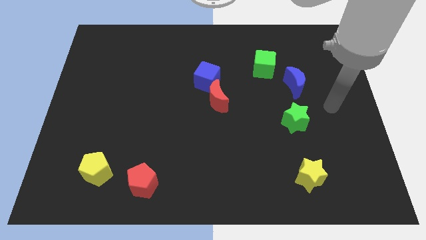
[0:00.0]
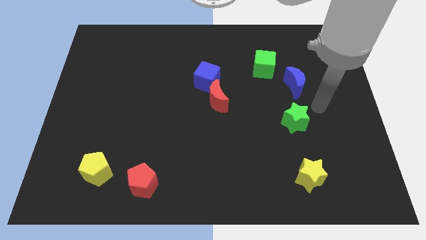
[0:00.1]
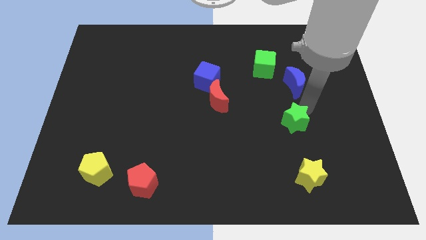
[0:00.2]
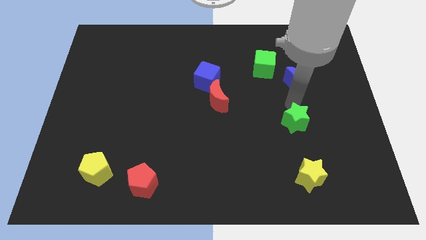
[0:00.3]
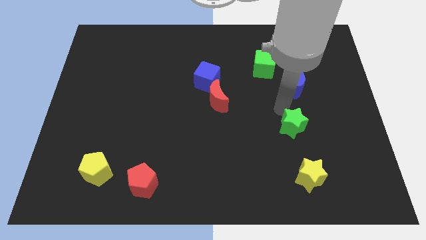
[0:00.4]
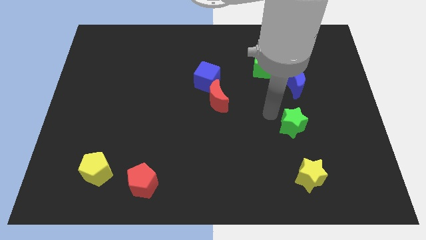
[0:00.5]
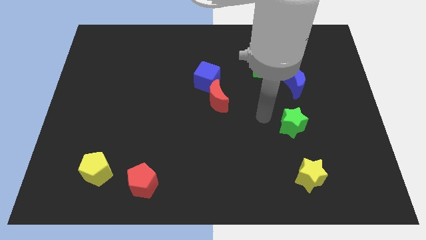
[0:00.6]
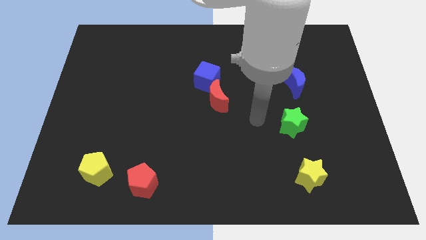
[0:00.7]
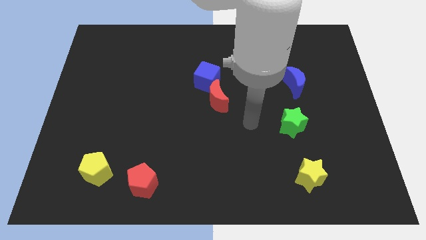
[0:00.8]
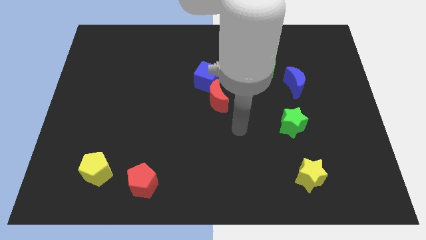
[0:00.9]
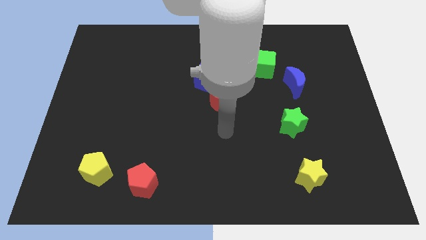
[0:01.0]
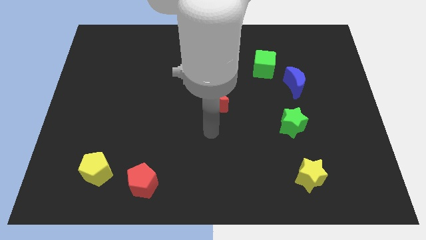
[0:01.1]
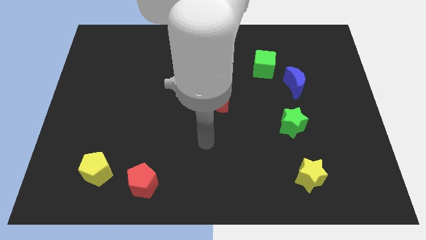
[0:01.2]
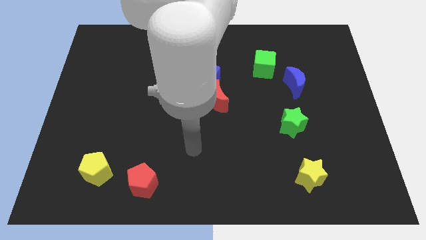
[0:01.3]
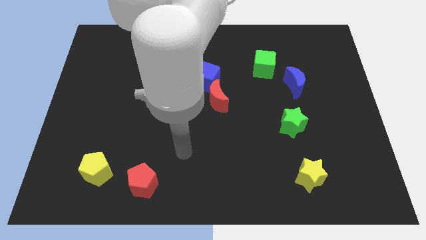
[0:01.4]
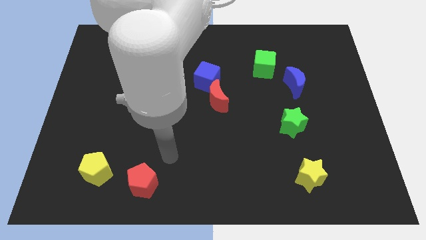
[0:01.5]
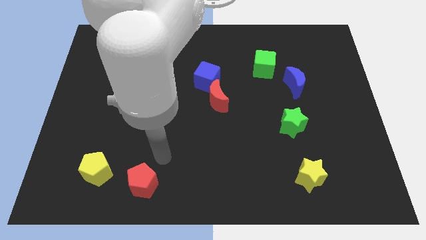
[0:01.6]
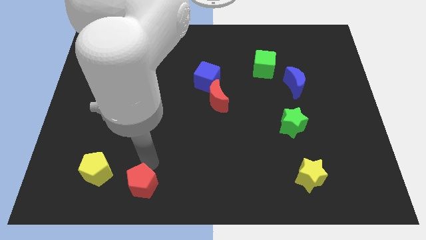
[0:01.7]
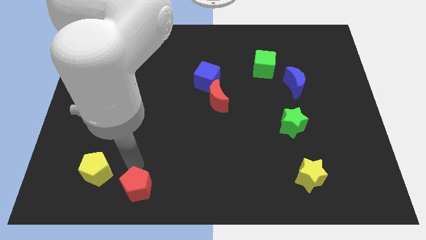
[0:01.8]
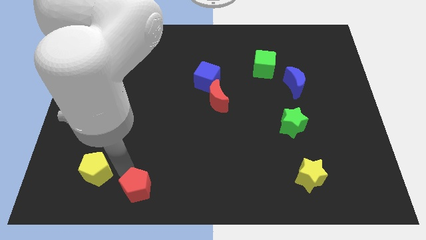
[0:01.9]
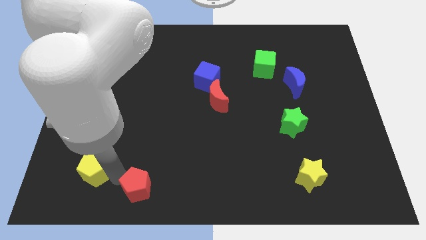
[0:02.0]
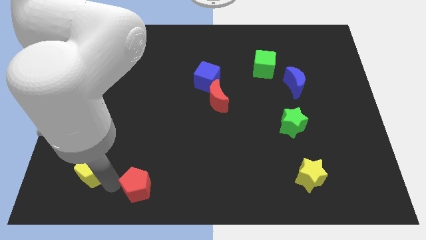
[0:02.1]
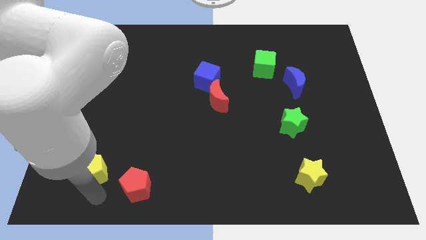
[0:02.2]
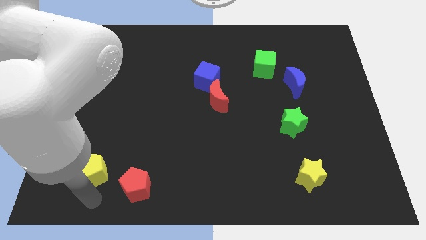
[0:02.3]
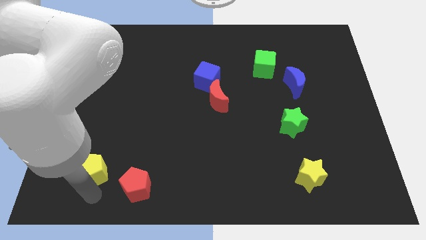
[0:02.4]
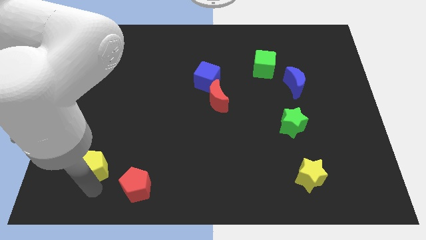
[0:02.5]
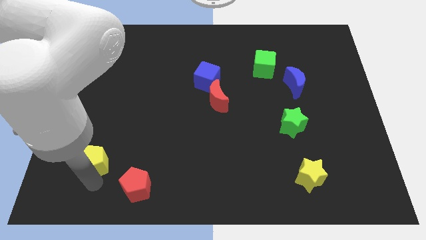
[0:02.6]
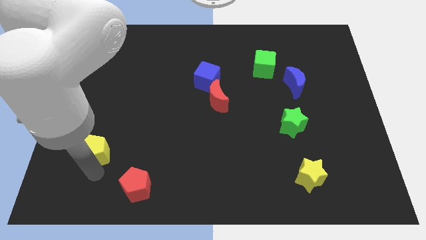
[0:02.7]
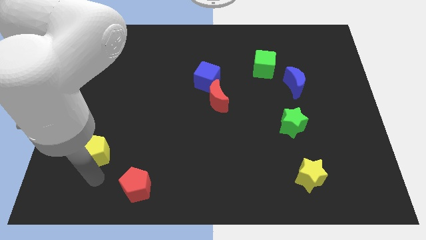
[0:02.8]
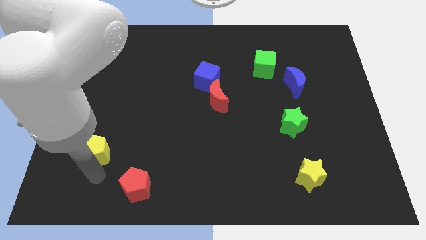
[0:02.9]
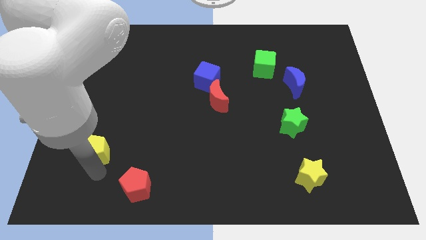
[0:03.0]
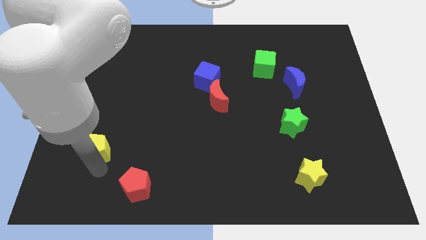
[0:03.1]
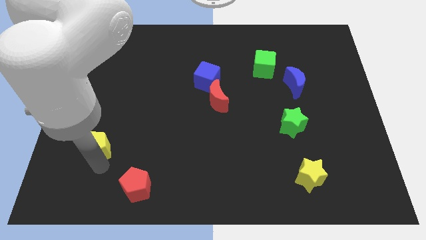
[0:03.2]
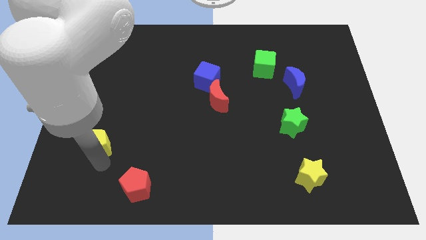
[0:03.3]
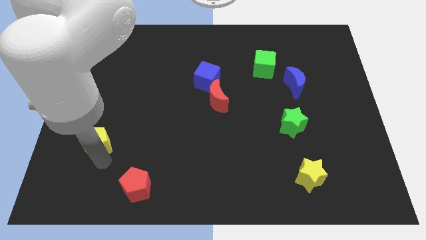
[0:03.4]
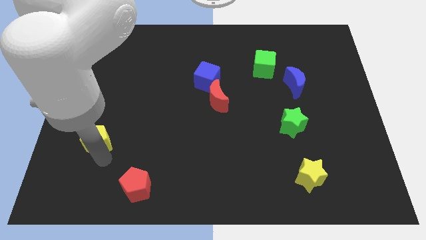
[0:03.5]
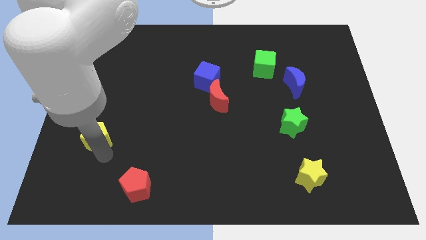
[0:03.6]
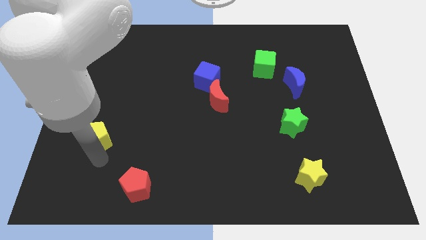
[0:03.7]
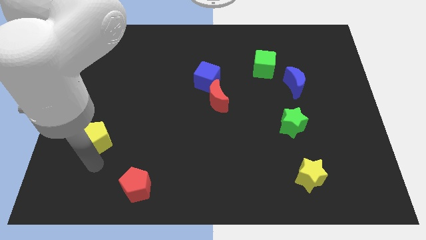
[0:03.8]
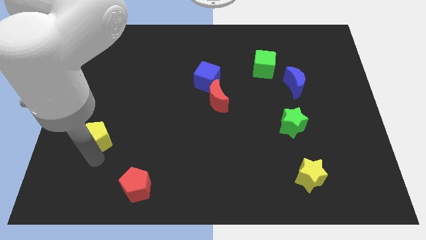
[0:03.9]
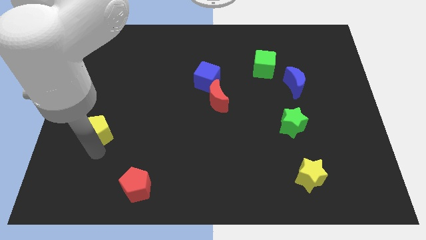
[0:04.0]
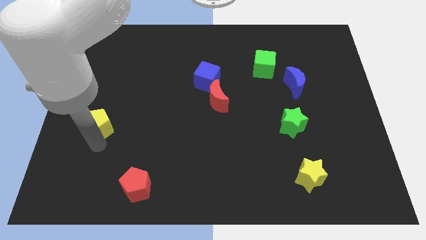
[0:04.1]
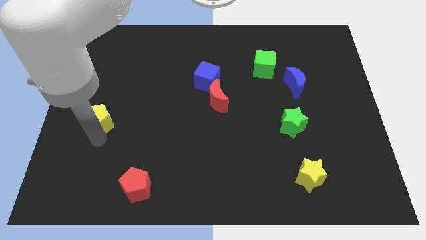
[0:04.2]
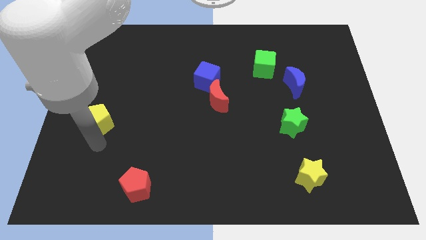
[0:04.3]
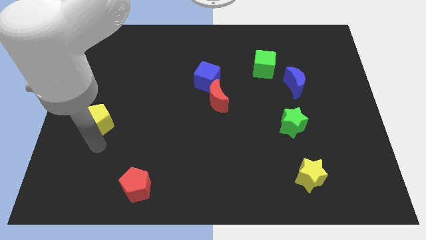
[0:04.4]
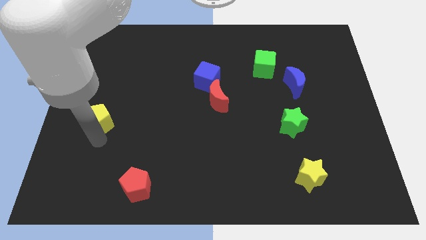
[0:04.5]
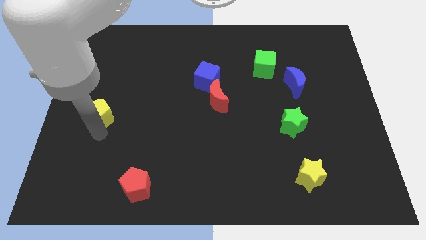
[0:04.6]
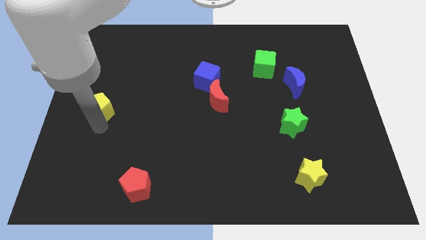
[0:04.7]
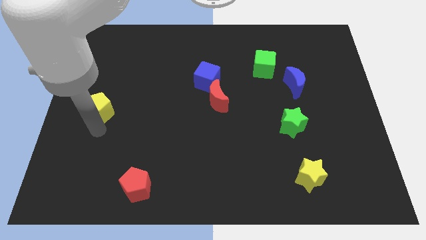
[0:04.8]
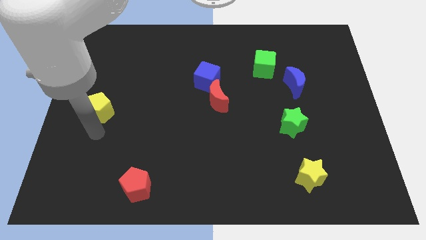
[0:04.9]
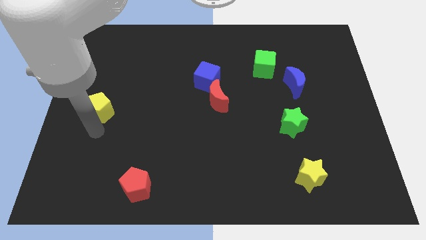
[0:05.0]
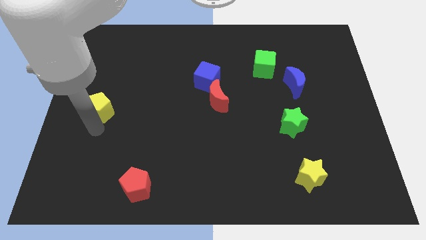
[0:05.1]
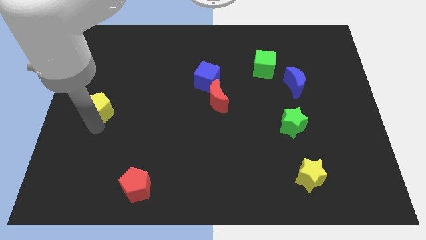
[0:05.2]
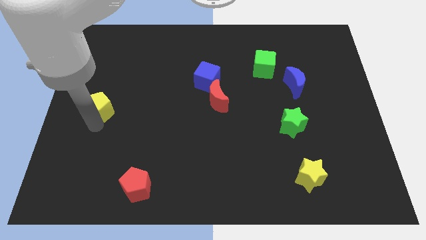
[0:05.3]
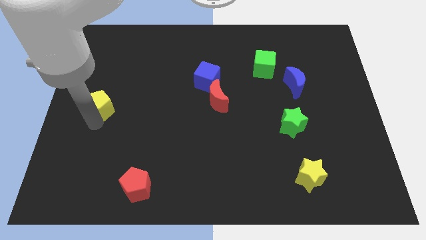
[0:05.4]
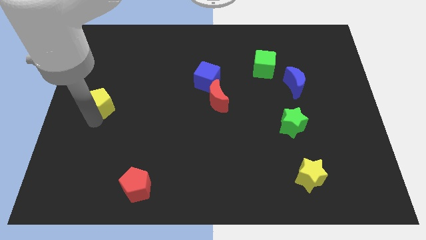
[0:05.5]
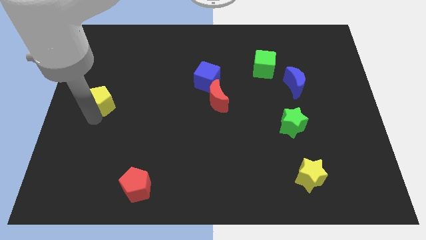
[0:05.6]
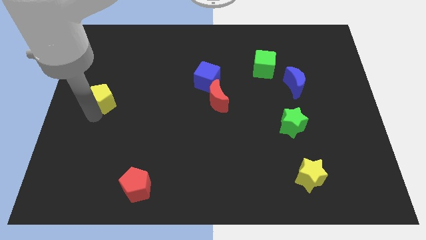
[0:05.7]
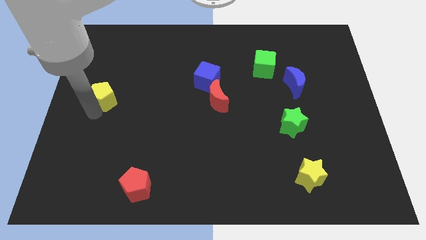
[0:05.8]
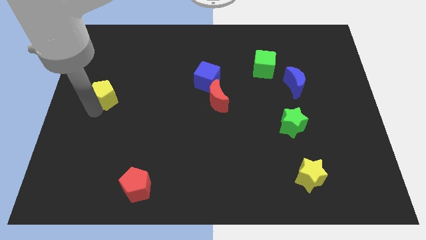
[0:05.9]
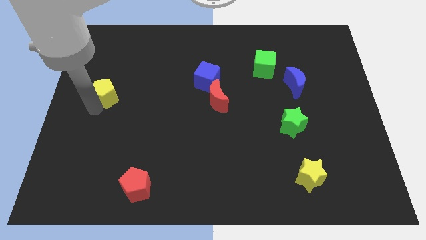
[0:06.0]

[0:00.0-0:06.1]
move the yellow pentagon upwards

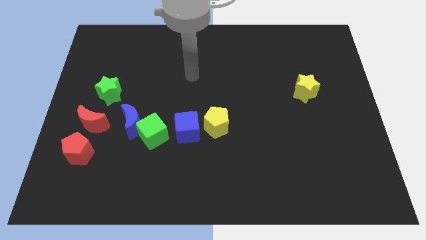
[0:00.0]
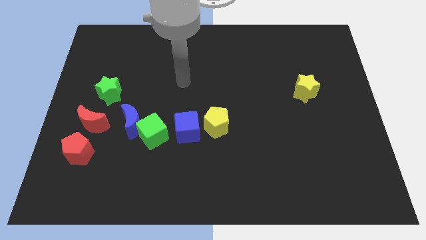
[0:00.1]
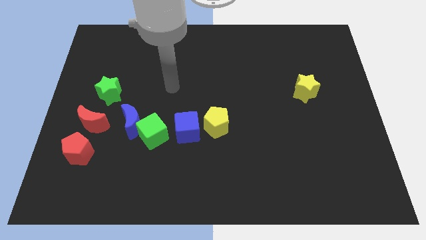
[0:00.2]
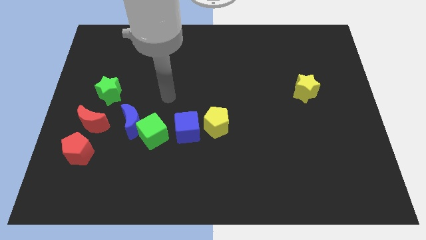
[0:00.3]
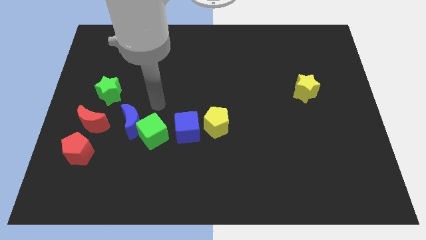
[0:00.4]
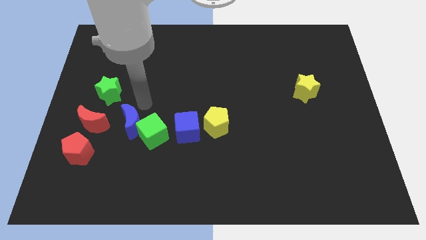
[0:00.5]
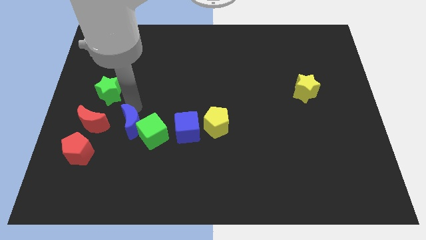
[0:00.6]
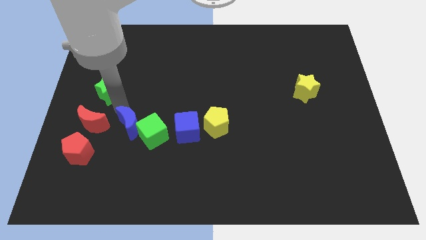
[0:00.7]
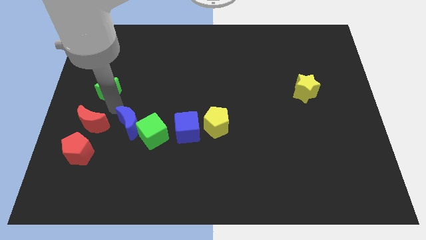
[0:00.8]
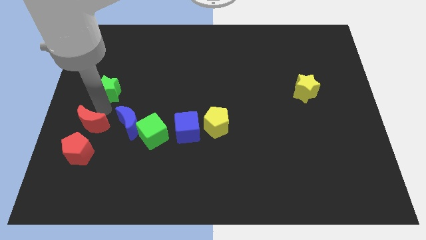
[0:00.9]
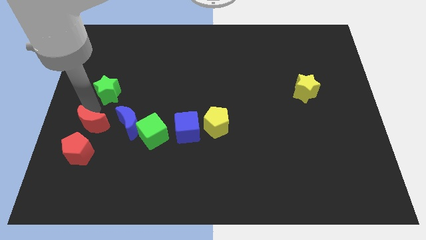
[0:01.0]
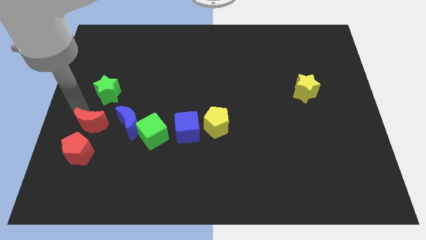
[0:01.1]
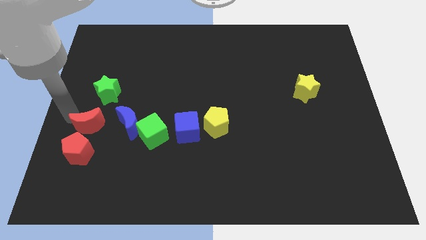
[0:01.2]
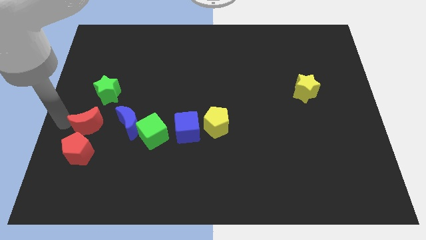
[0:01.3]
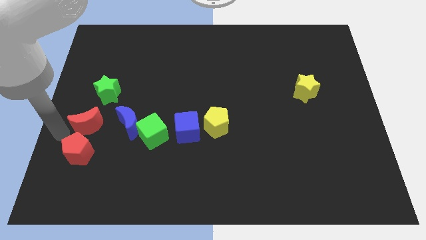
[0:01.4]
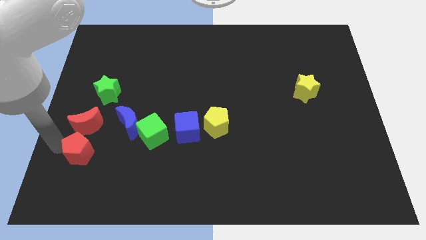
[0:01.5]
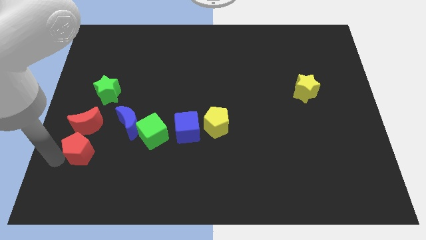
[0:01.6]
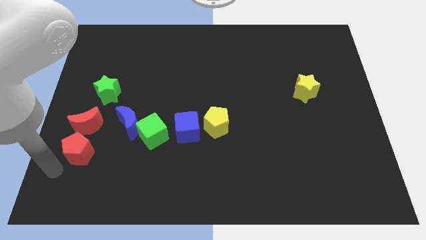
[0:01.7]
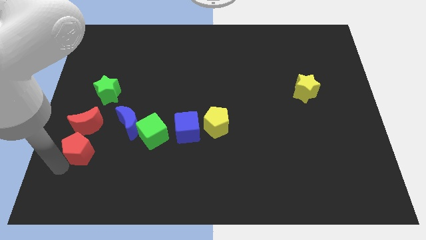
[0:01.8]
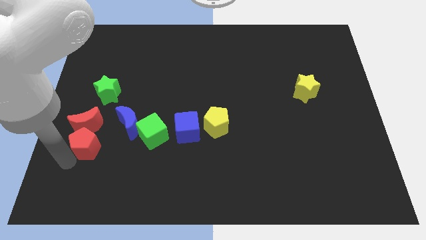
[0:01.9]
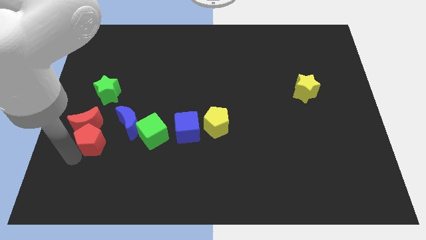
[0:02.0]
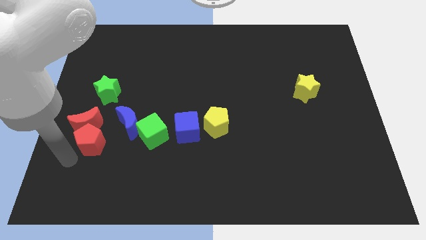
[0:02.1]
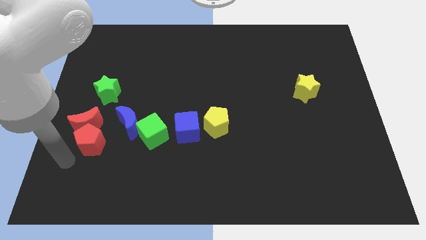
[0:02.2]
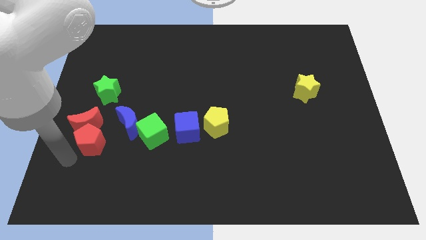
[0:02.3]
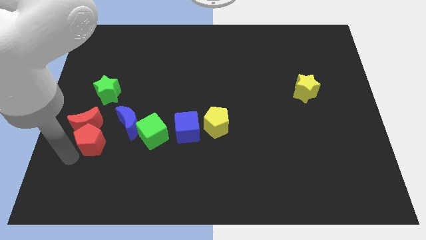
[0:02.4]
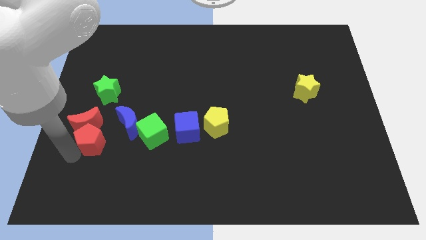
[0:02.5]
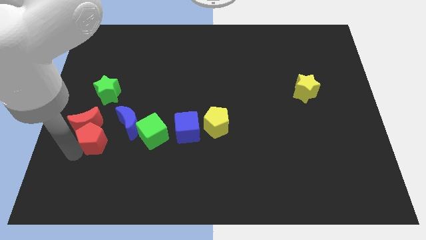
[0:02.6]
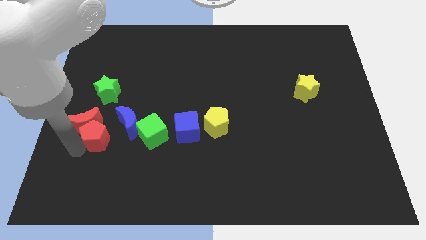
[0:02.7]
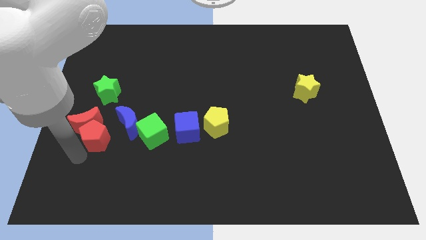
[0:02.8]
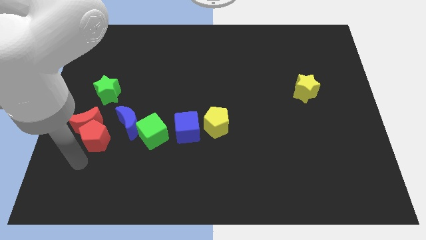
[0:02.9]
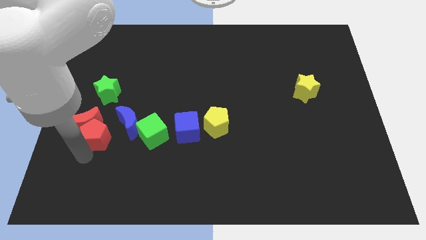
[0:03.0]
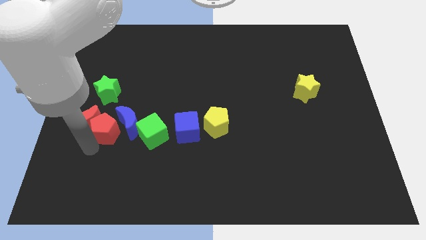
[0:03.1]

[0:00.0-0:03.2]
slightly slide the red pentagon upwards and right
